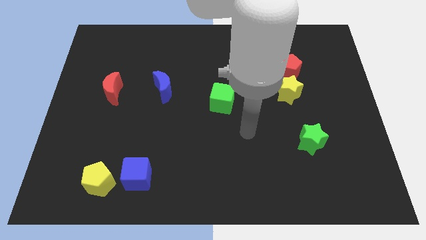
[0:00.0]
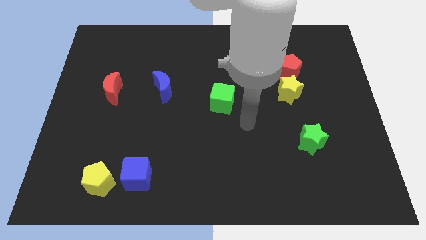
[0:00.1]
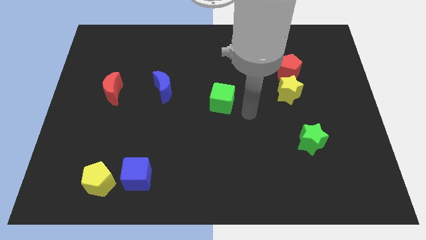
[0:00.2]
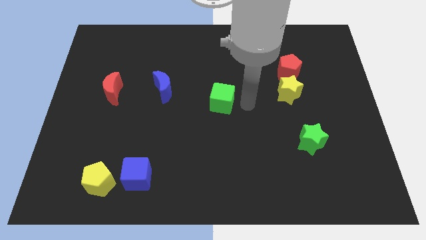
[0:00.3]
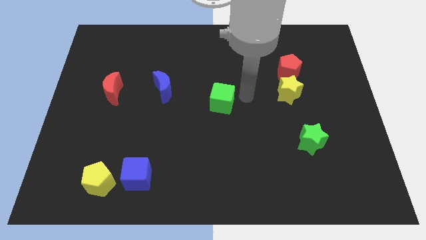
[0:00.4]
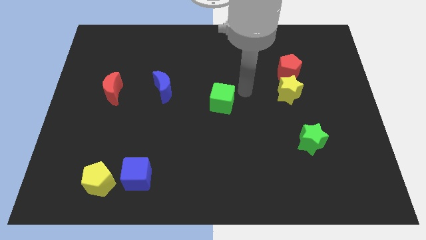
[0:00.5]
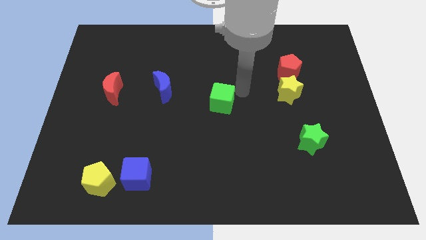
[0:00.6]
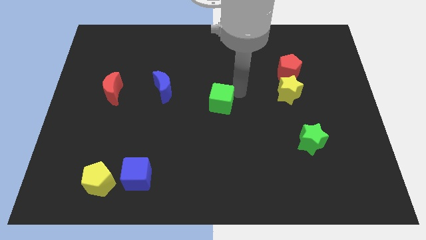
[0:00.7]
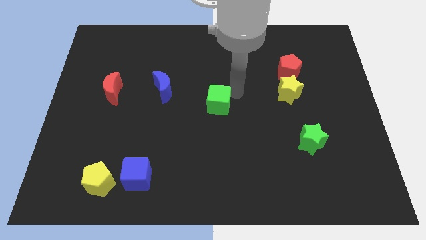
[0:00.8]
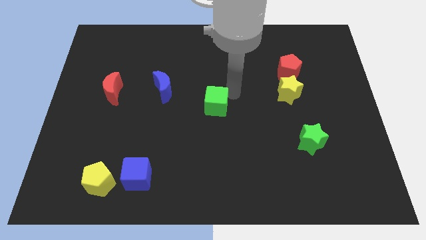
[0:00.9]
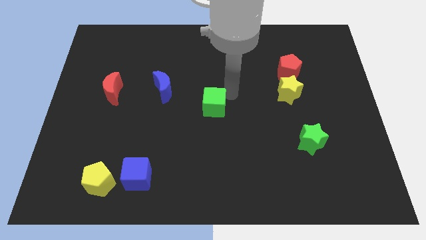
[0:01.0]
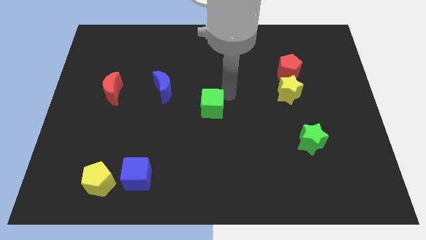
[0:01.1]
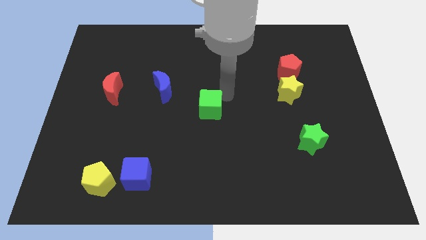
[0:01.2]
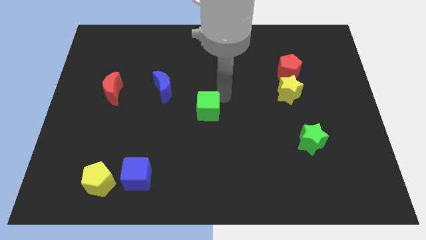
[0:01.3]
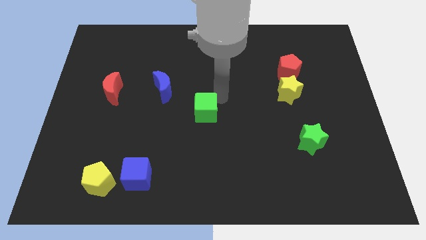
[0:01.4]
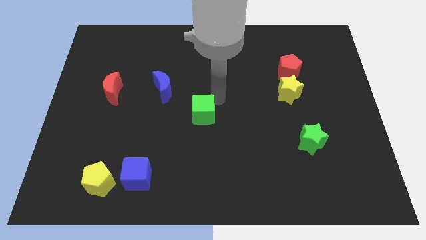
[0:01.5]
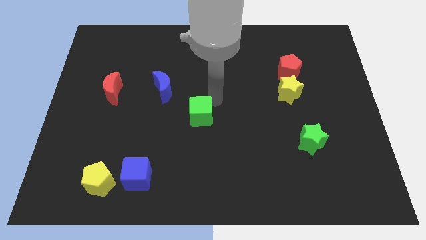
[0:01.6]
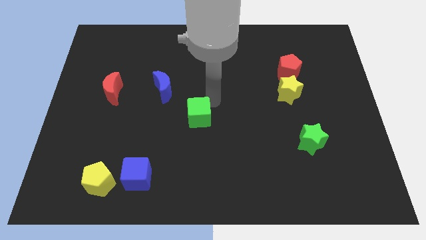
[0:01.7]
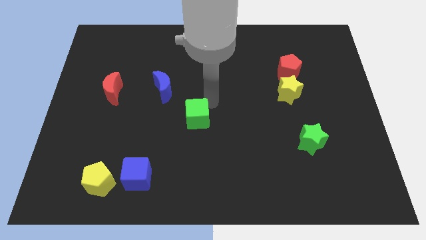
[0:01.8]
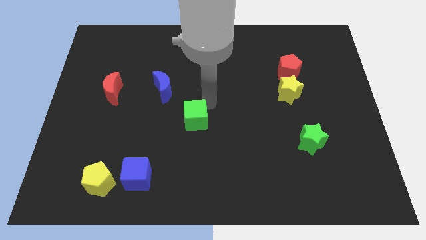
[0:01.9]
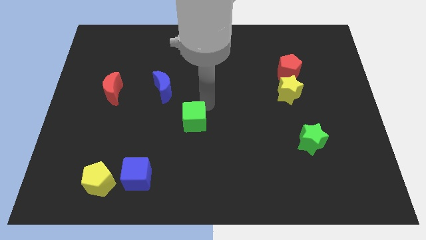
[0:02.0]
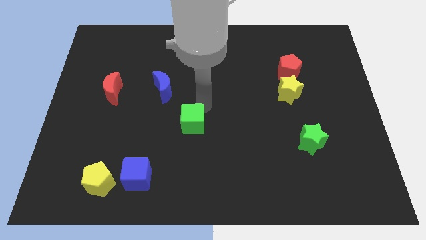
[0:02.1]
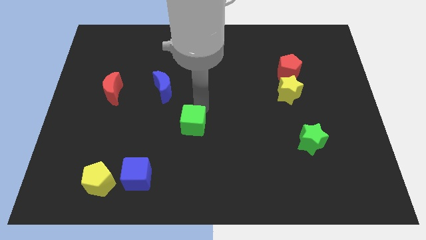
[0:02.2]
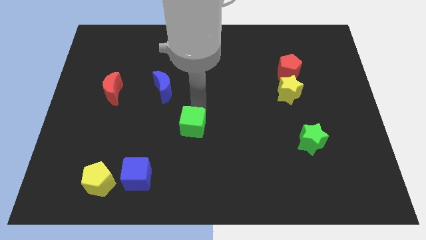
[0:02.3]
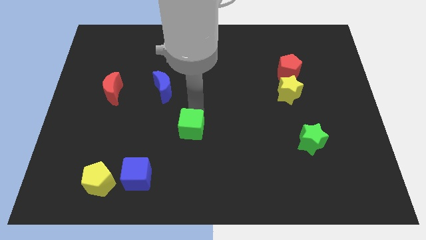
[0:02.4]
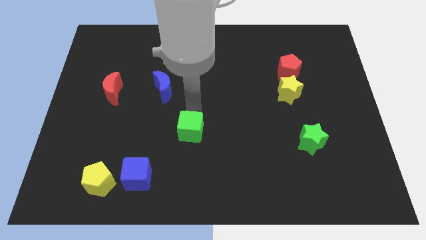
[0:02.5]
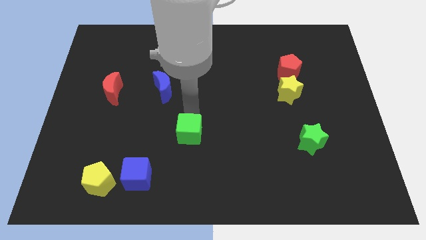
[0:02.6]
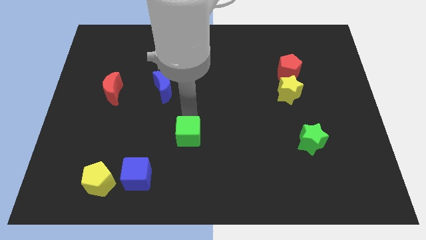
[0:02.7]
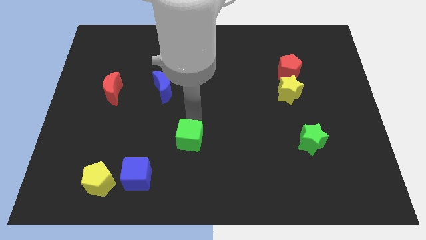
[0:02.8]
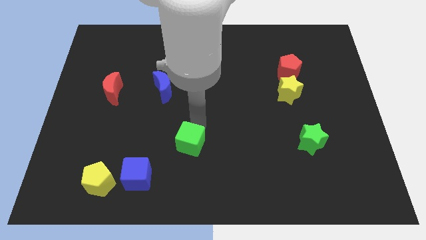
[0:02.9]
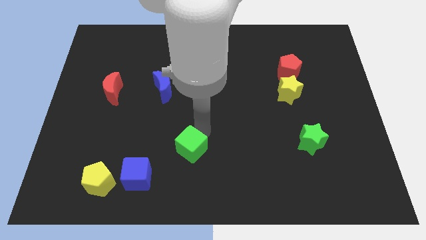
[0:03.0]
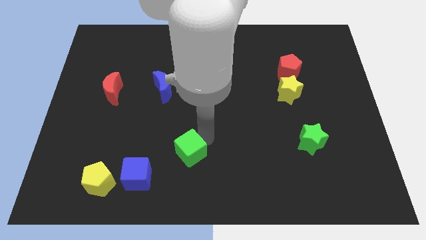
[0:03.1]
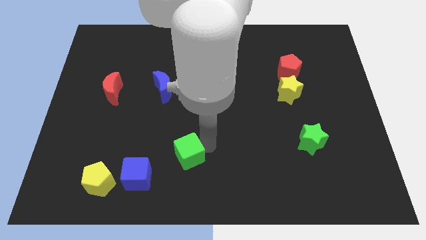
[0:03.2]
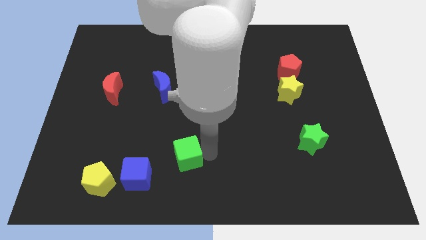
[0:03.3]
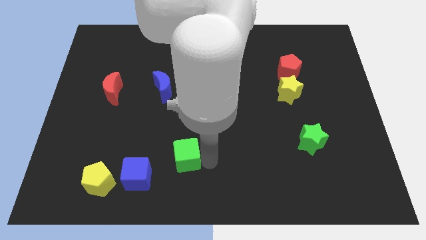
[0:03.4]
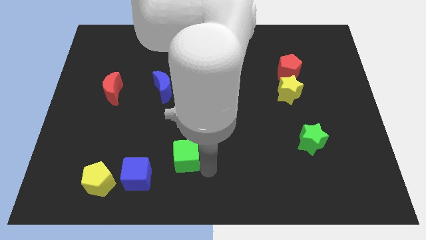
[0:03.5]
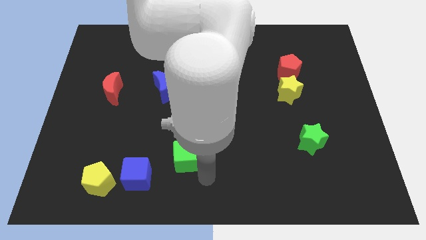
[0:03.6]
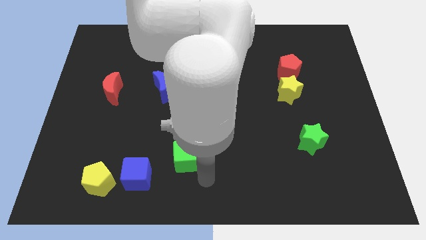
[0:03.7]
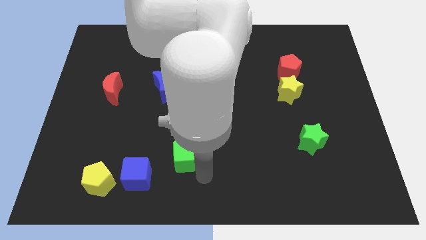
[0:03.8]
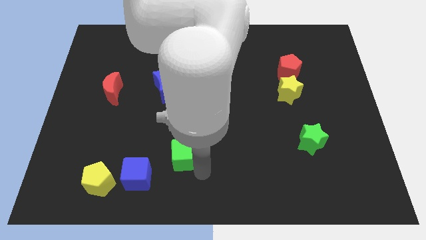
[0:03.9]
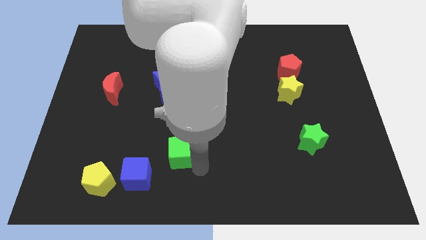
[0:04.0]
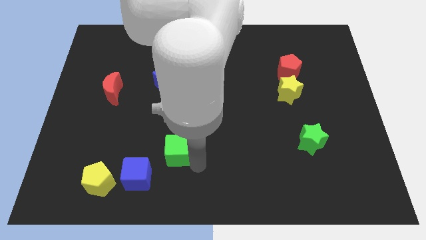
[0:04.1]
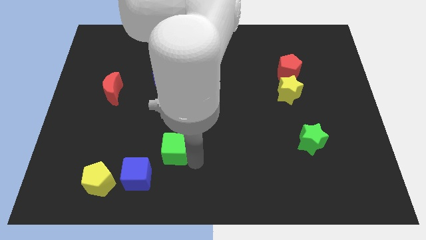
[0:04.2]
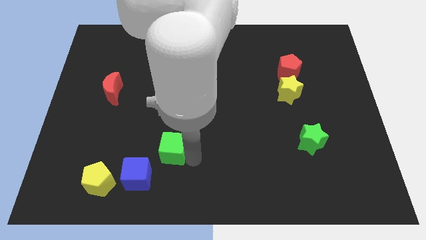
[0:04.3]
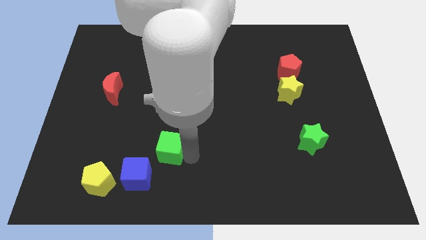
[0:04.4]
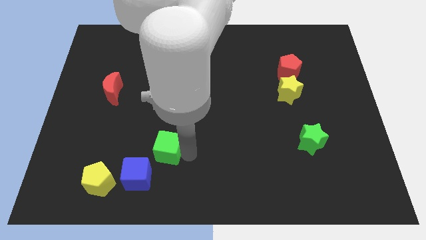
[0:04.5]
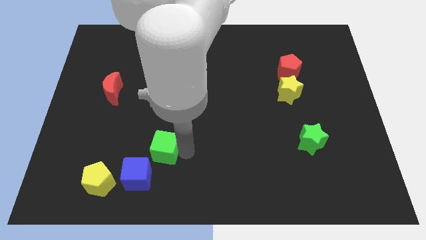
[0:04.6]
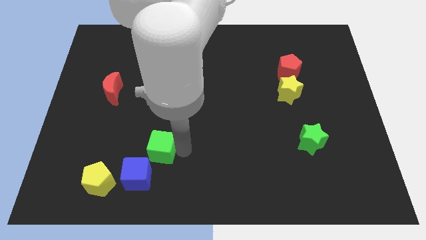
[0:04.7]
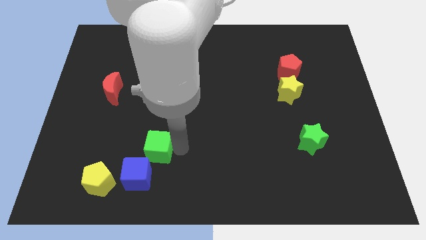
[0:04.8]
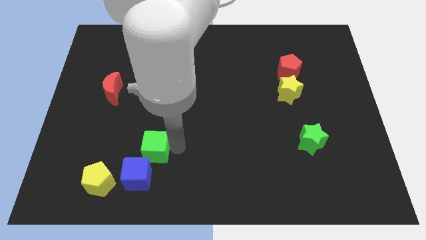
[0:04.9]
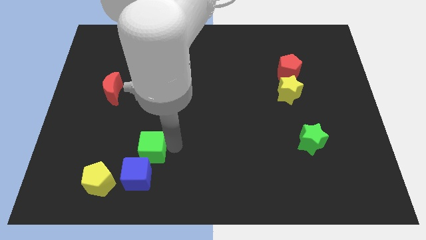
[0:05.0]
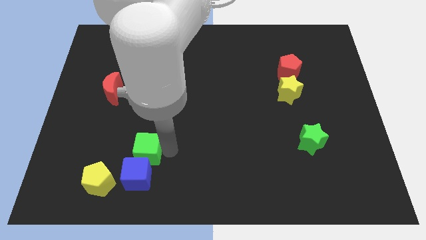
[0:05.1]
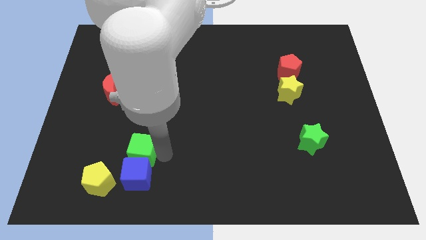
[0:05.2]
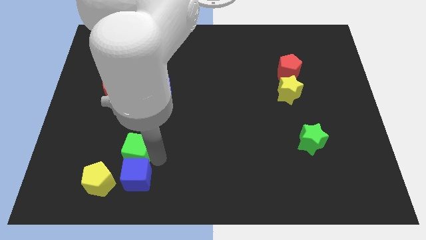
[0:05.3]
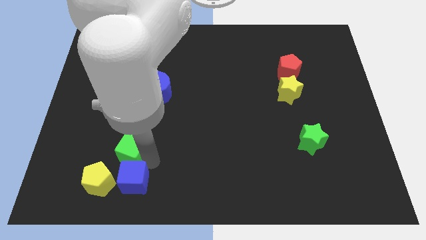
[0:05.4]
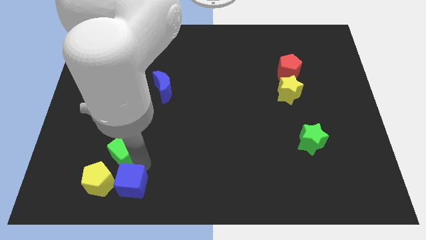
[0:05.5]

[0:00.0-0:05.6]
move the green cube to the top side of the yellow pentagon

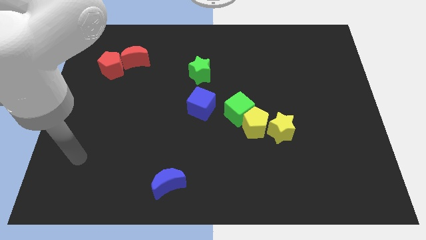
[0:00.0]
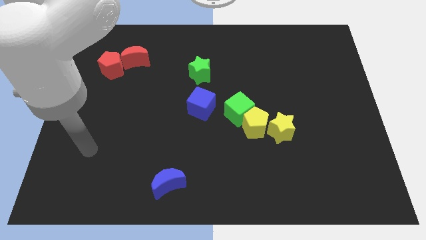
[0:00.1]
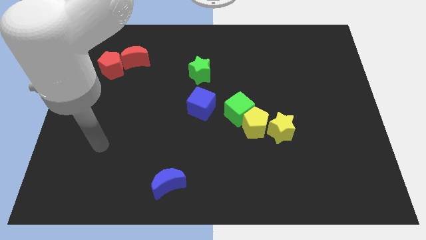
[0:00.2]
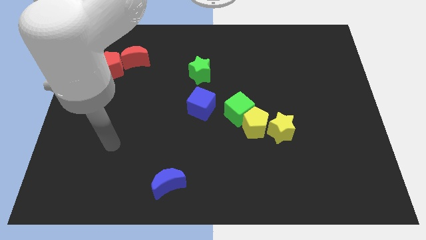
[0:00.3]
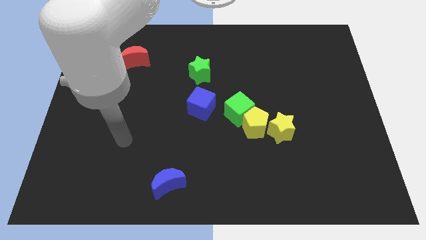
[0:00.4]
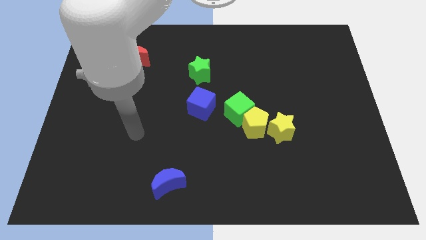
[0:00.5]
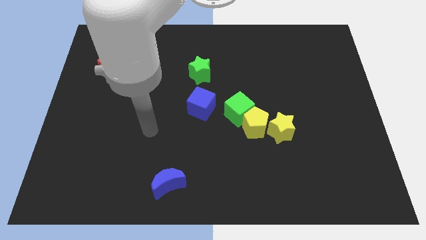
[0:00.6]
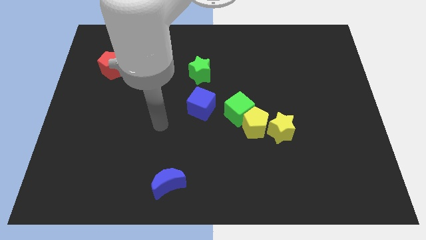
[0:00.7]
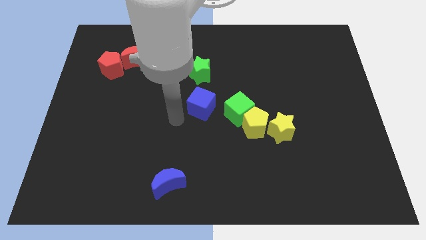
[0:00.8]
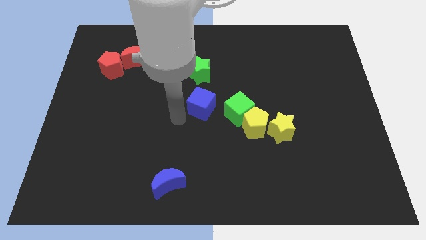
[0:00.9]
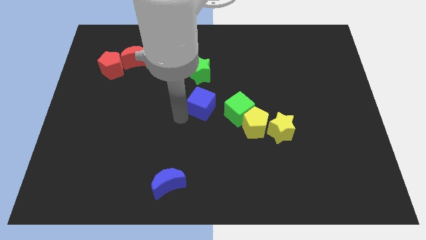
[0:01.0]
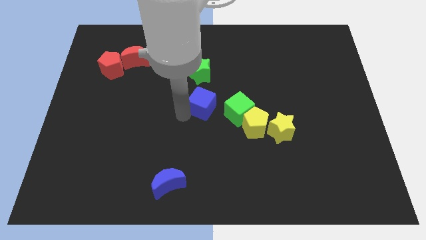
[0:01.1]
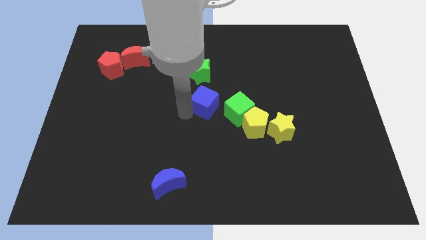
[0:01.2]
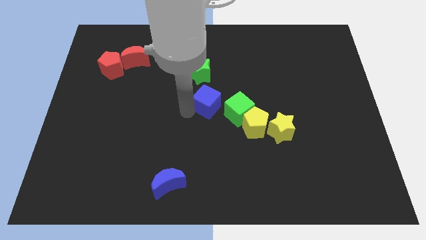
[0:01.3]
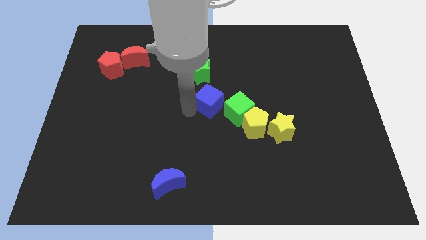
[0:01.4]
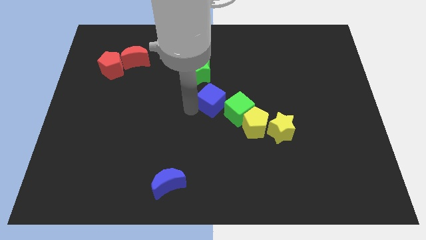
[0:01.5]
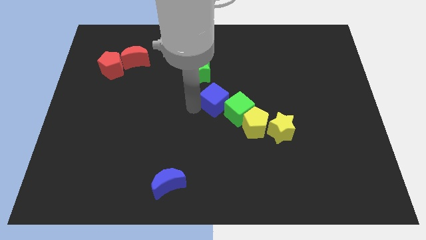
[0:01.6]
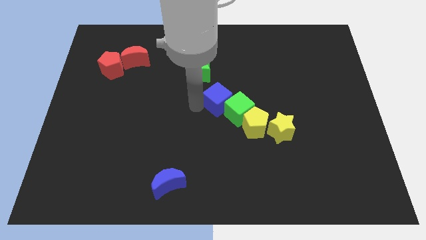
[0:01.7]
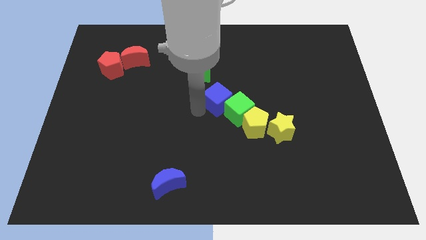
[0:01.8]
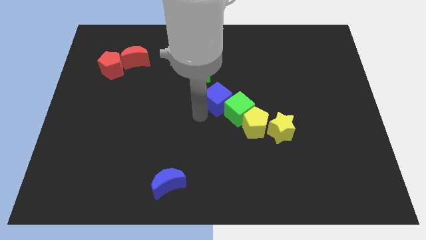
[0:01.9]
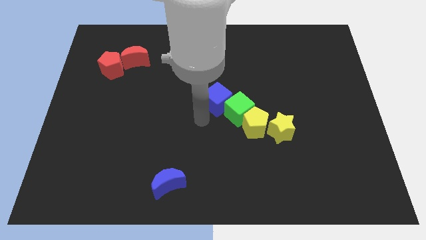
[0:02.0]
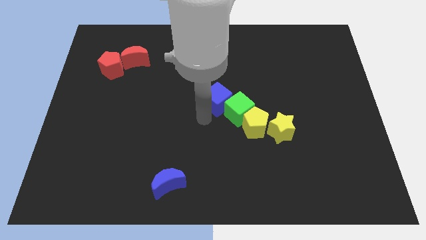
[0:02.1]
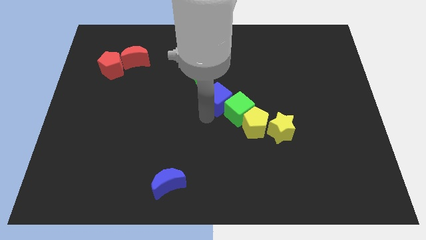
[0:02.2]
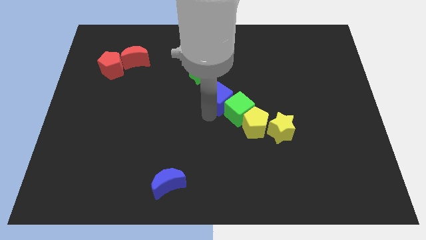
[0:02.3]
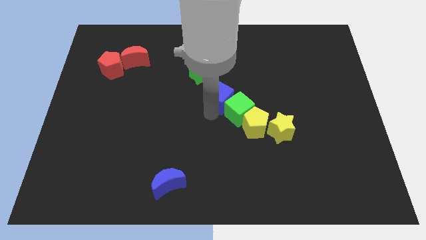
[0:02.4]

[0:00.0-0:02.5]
move the blue cube to the top of the green cube
